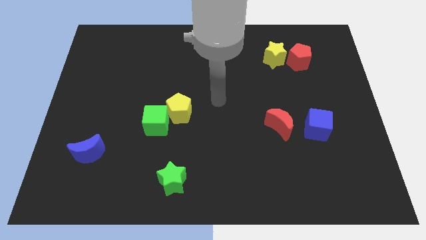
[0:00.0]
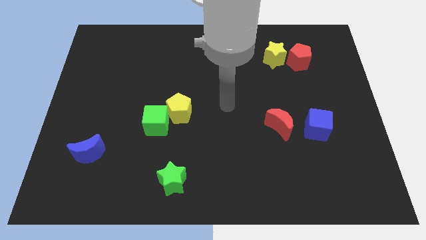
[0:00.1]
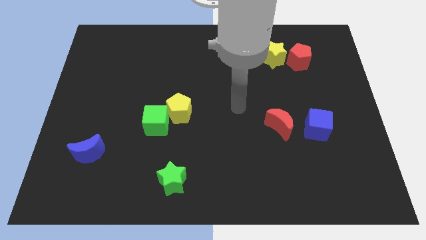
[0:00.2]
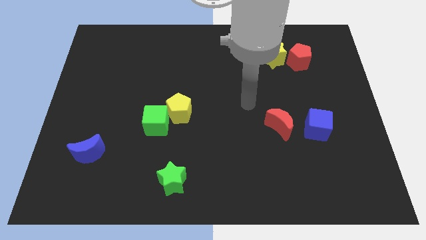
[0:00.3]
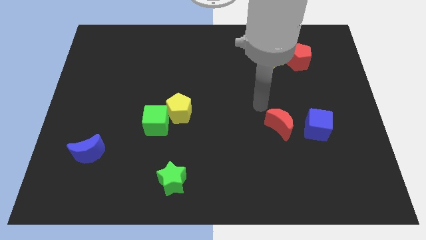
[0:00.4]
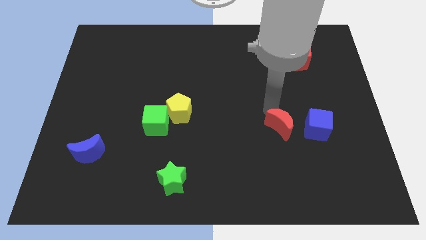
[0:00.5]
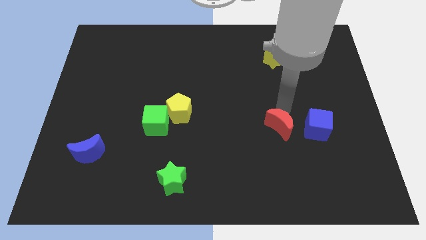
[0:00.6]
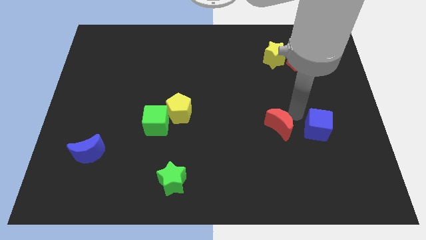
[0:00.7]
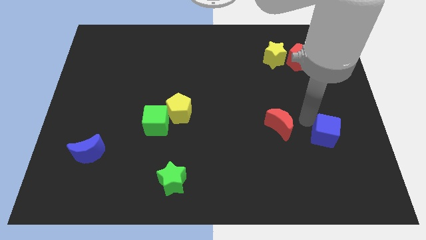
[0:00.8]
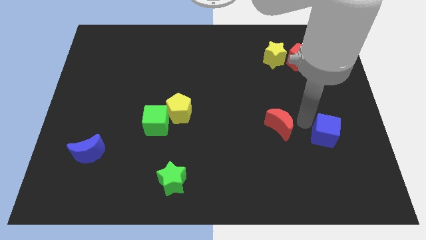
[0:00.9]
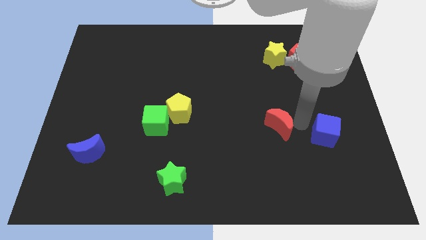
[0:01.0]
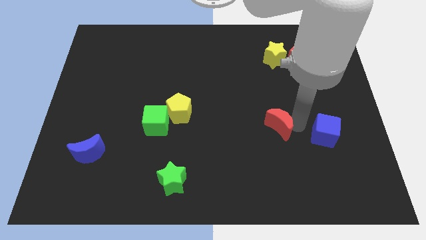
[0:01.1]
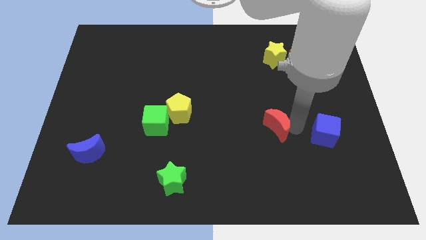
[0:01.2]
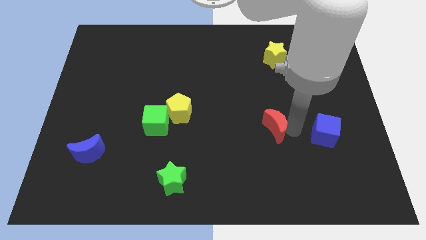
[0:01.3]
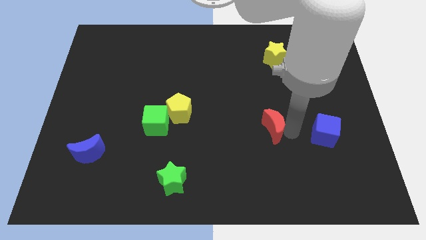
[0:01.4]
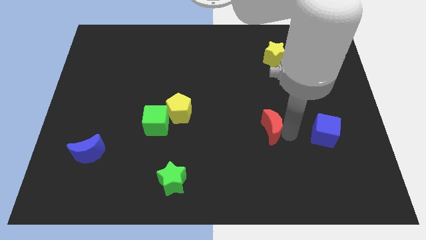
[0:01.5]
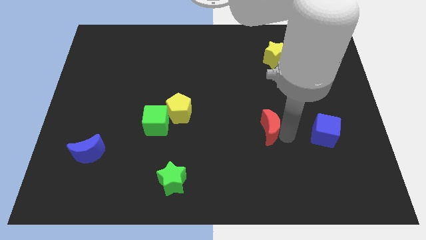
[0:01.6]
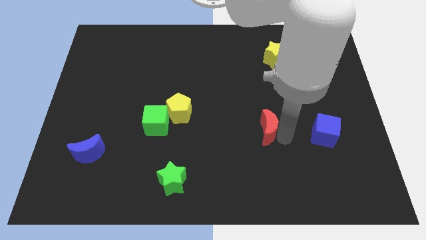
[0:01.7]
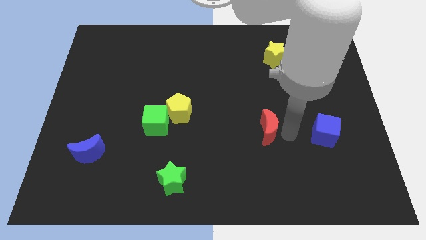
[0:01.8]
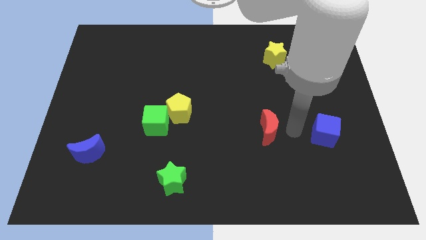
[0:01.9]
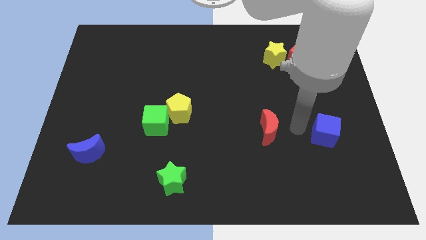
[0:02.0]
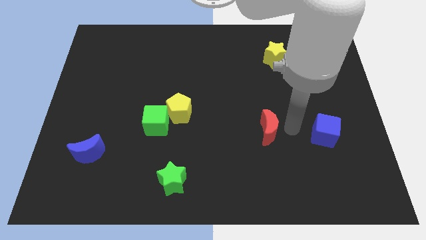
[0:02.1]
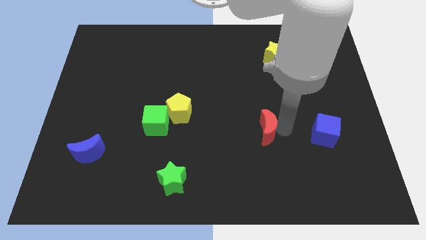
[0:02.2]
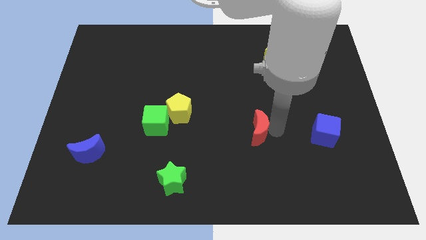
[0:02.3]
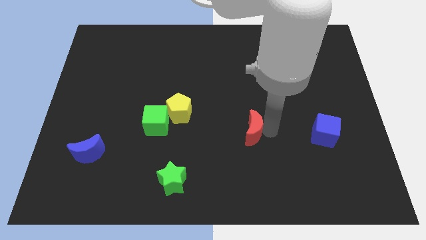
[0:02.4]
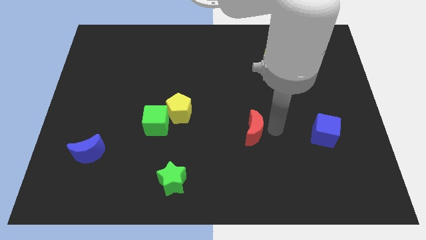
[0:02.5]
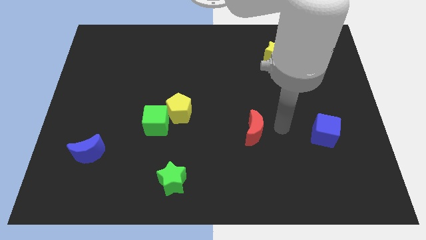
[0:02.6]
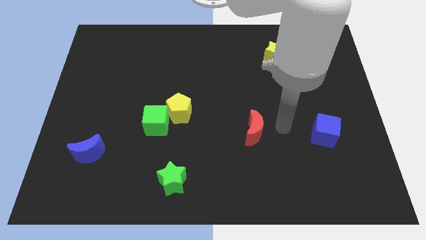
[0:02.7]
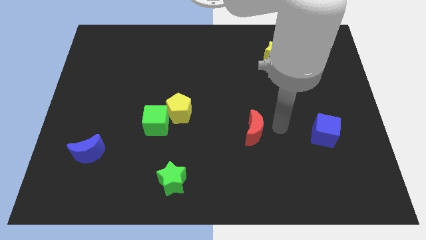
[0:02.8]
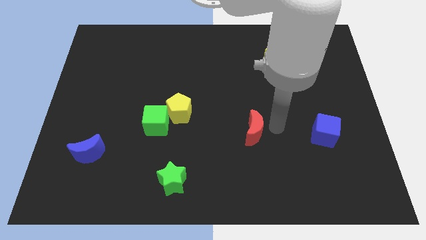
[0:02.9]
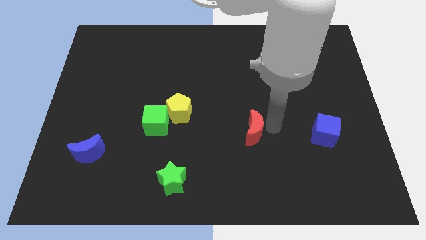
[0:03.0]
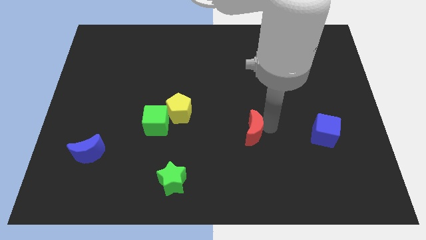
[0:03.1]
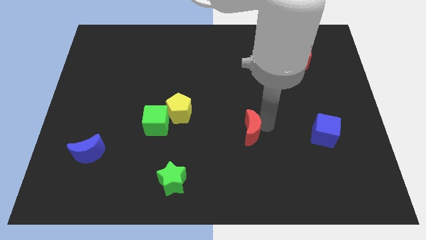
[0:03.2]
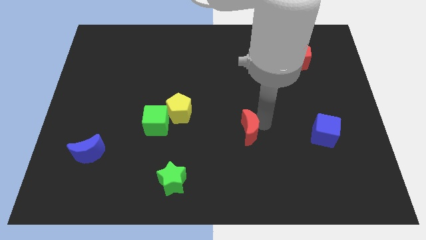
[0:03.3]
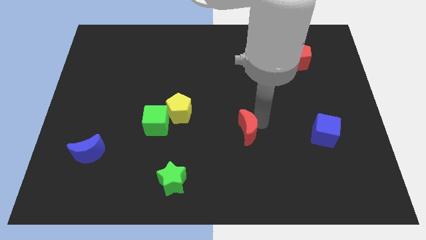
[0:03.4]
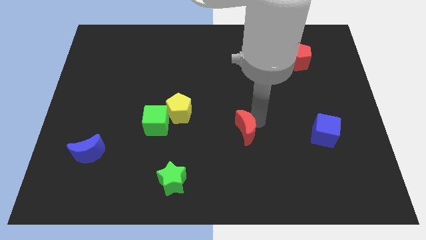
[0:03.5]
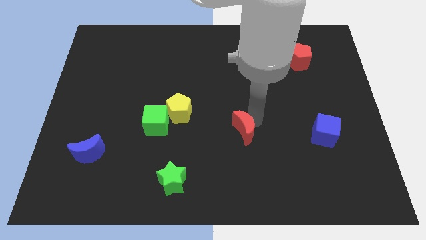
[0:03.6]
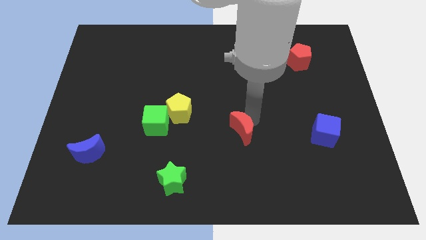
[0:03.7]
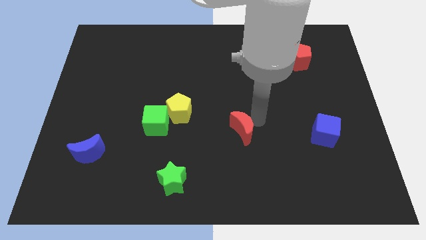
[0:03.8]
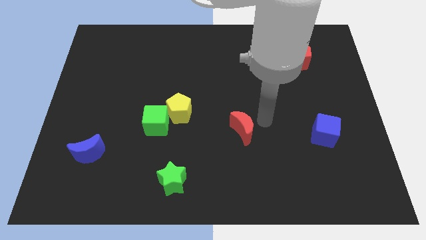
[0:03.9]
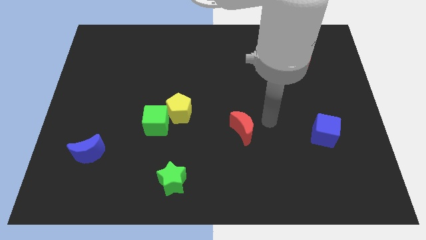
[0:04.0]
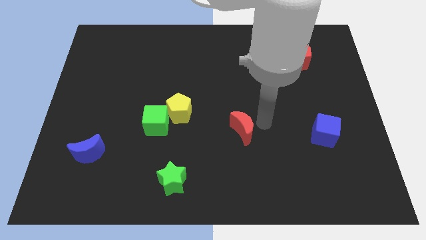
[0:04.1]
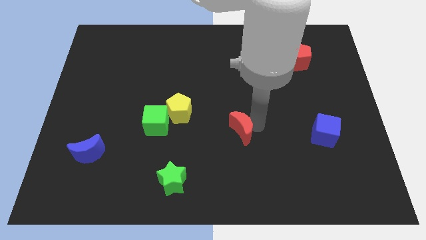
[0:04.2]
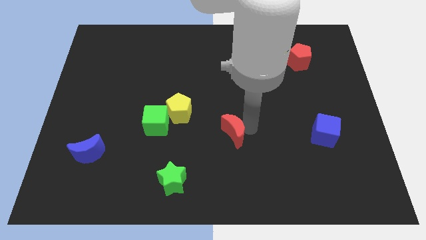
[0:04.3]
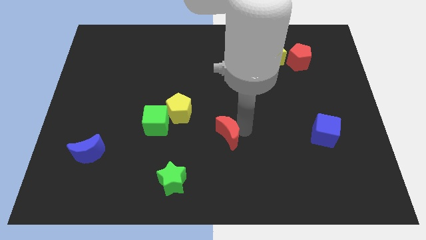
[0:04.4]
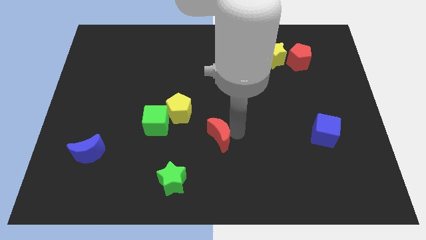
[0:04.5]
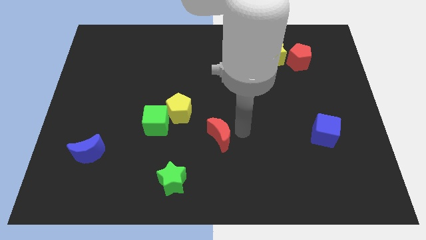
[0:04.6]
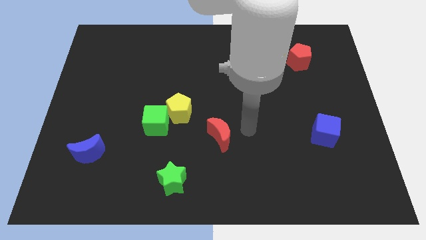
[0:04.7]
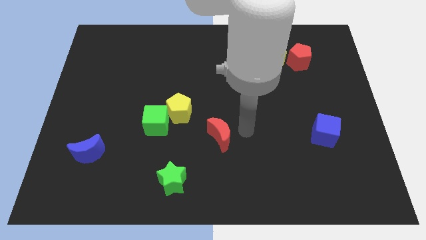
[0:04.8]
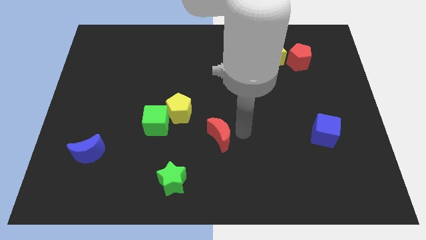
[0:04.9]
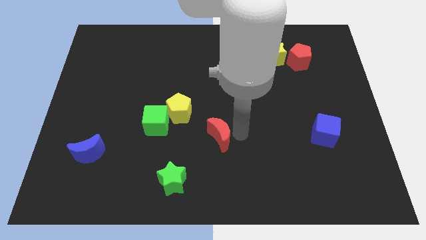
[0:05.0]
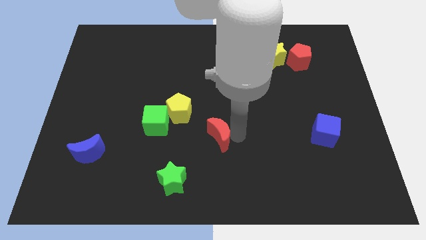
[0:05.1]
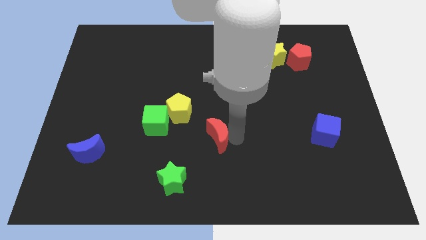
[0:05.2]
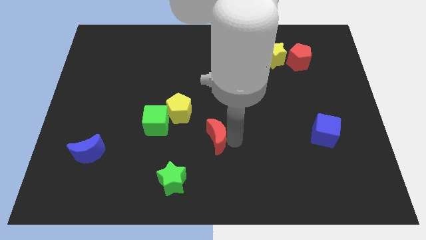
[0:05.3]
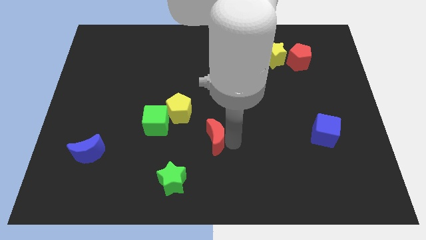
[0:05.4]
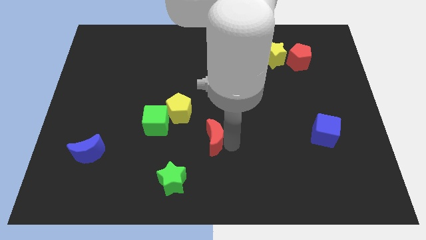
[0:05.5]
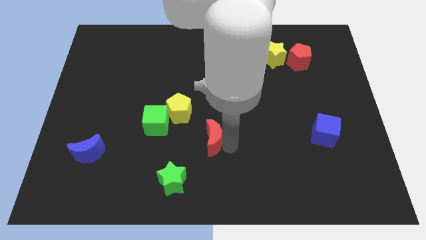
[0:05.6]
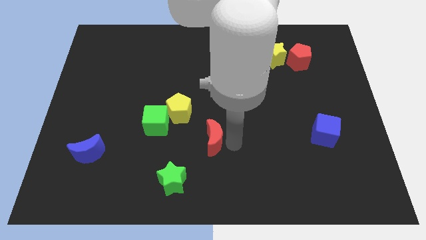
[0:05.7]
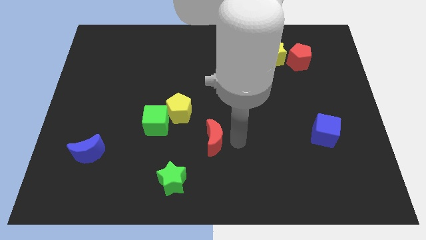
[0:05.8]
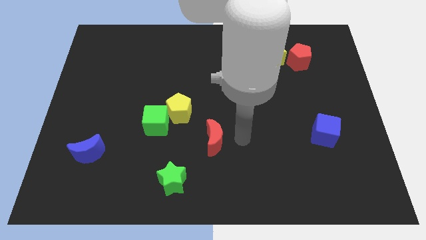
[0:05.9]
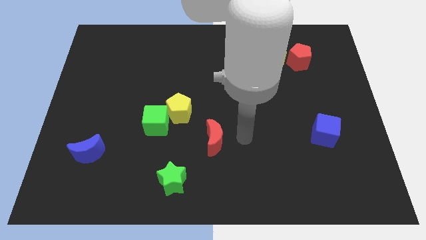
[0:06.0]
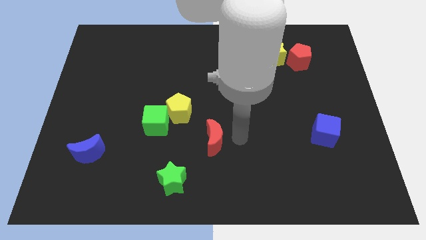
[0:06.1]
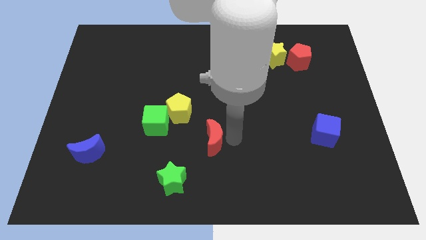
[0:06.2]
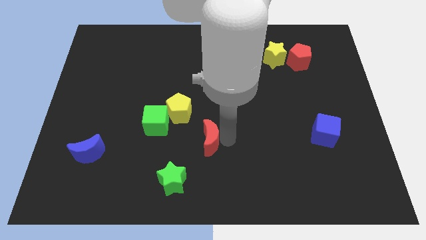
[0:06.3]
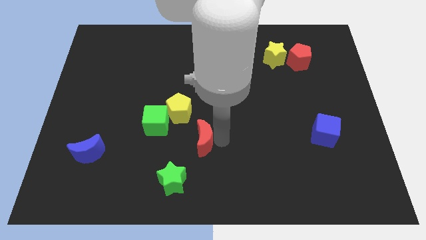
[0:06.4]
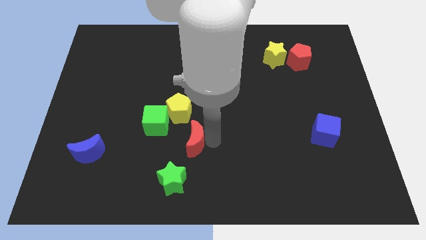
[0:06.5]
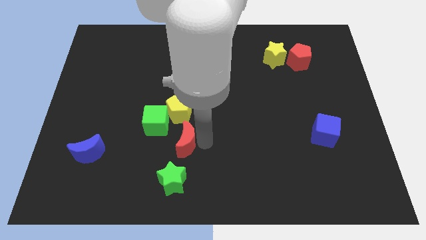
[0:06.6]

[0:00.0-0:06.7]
slide the red moon left

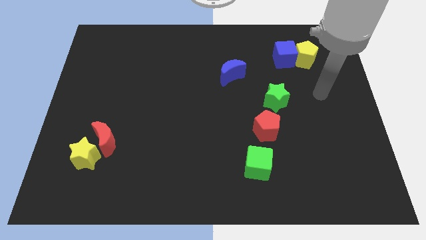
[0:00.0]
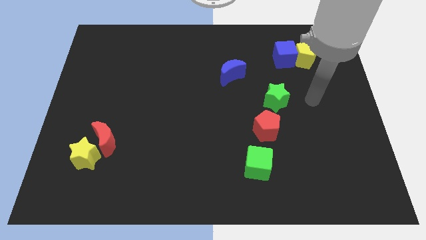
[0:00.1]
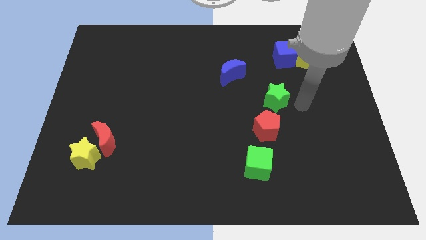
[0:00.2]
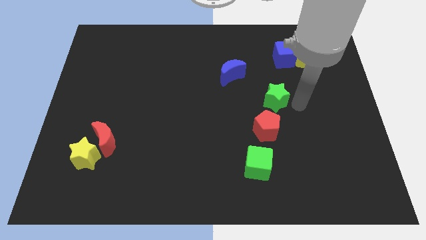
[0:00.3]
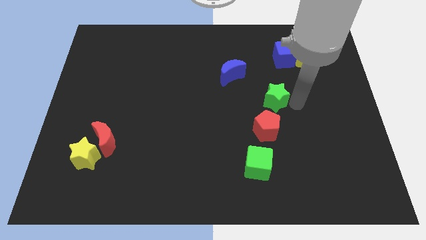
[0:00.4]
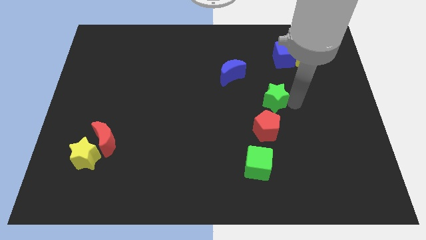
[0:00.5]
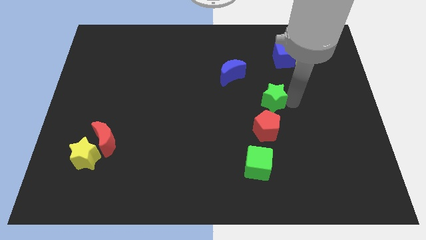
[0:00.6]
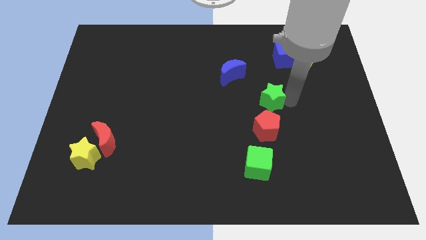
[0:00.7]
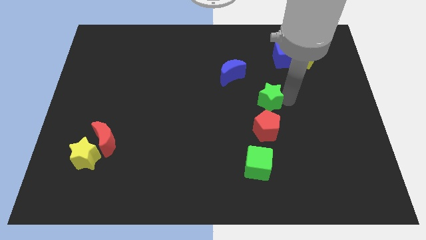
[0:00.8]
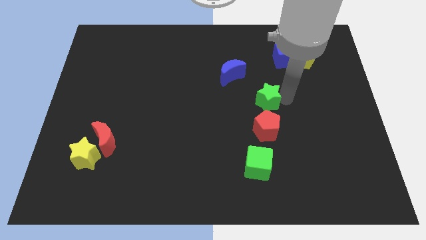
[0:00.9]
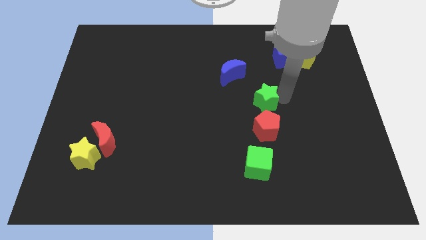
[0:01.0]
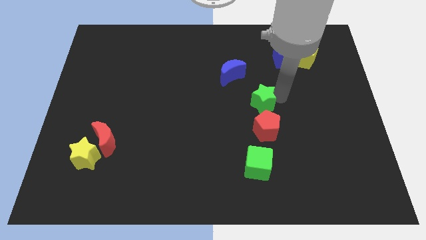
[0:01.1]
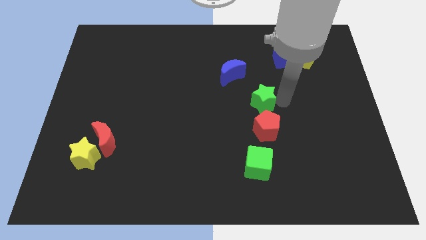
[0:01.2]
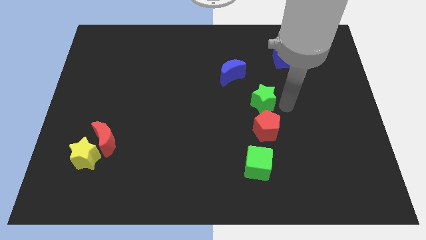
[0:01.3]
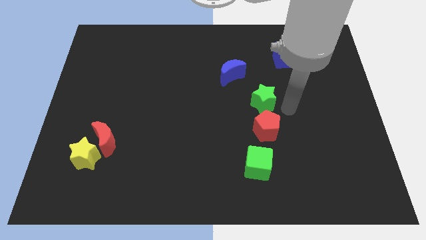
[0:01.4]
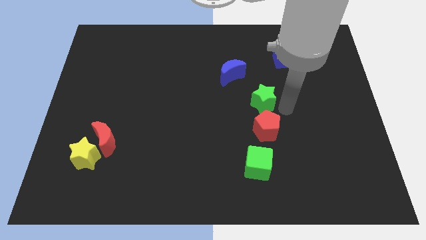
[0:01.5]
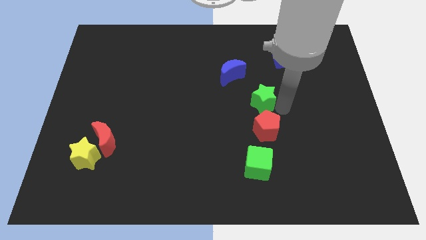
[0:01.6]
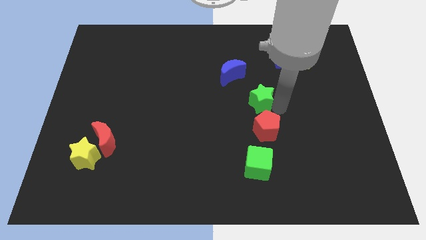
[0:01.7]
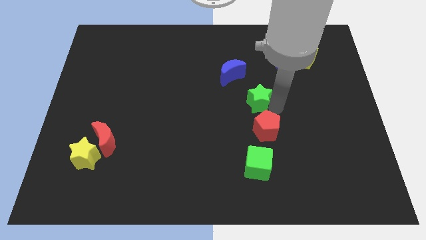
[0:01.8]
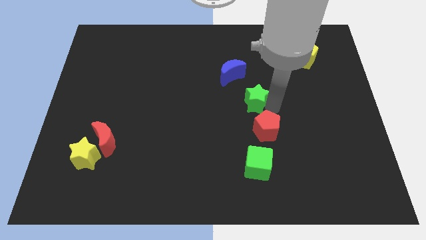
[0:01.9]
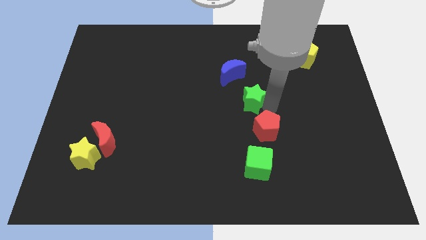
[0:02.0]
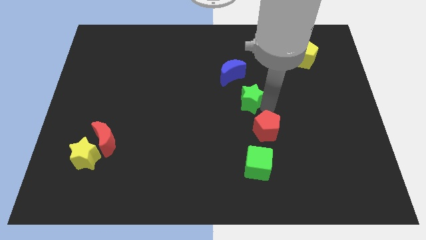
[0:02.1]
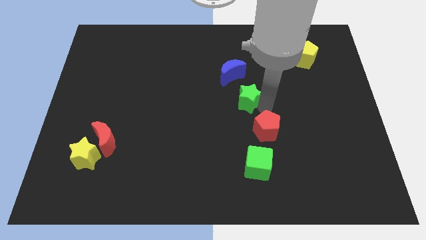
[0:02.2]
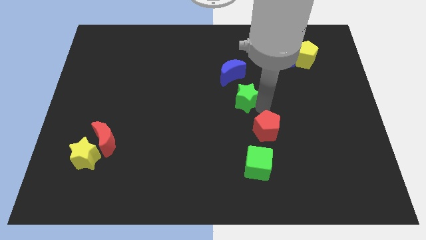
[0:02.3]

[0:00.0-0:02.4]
slightly slide the green star left
